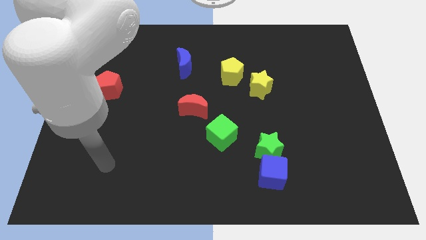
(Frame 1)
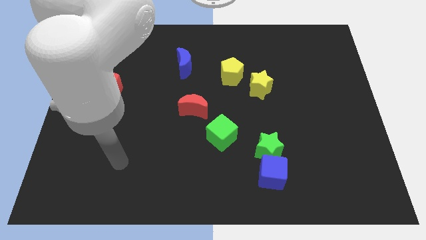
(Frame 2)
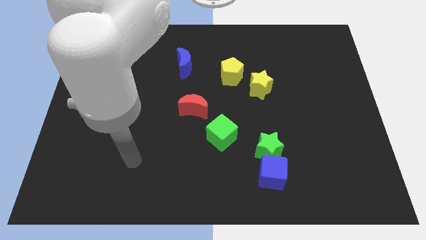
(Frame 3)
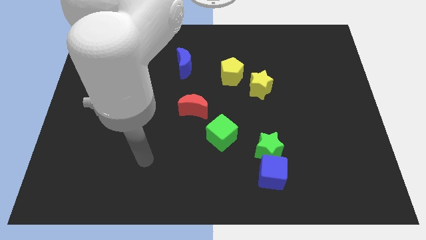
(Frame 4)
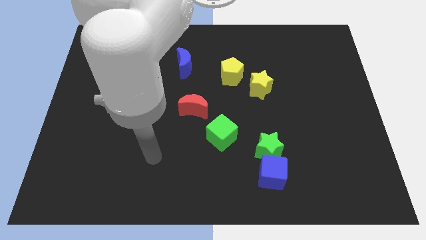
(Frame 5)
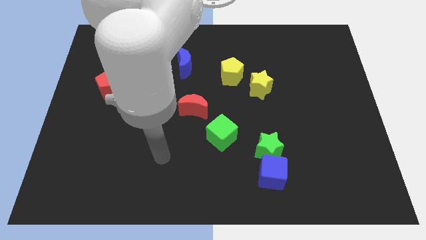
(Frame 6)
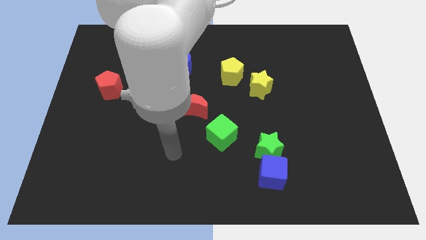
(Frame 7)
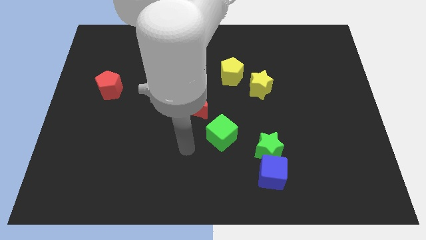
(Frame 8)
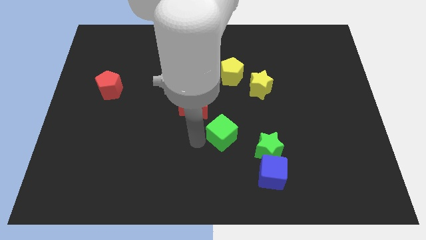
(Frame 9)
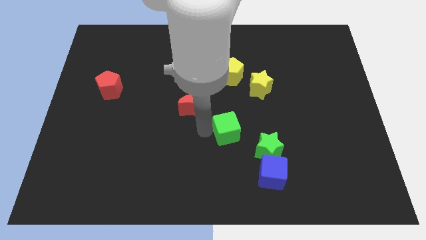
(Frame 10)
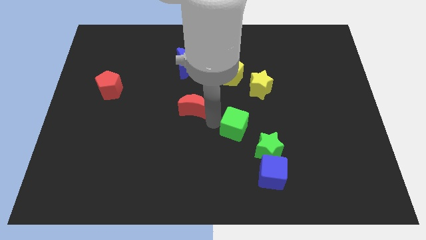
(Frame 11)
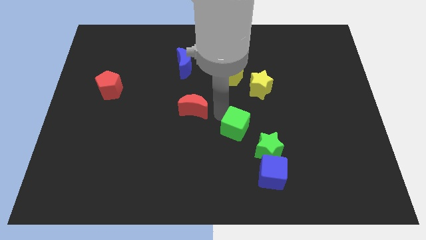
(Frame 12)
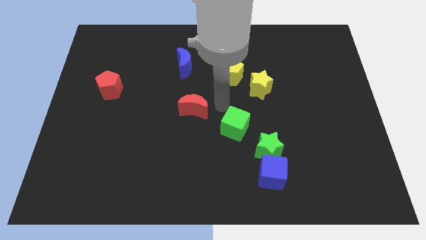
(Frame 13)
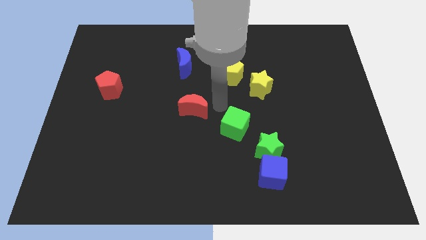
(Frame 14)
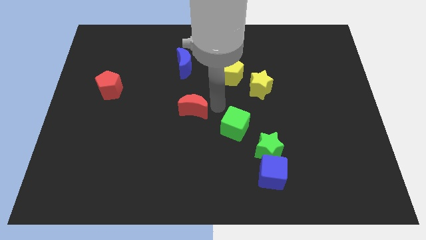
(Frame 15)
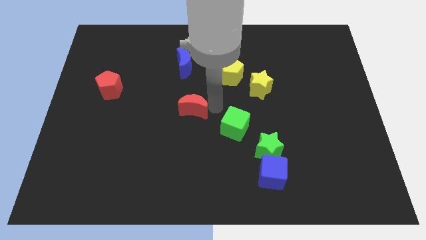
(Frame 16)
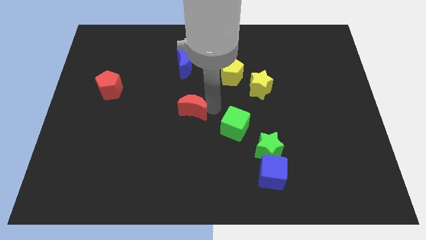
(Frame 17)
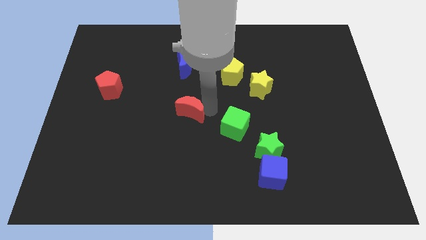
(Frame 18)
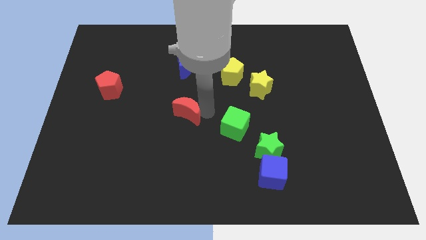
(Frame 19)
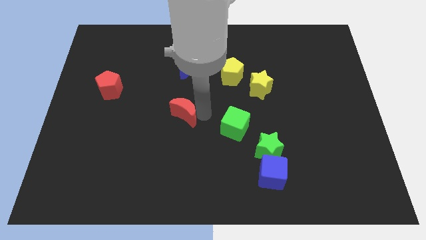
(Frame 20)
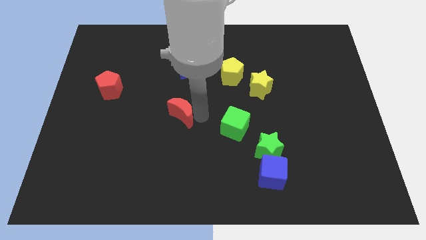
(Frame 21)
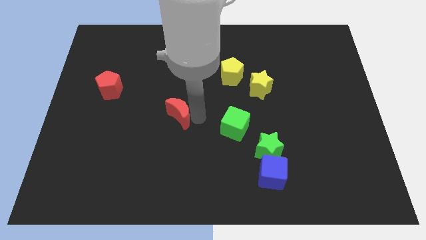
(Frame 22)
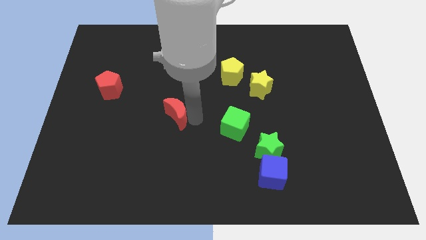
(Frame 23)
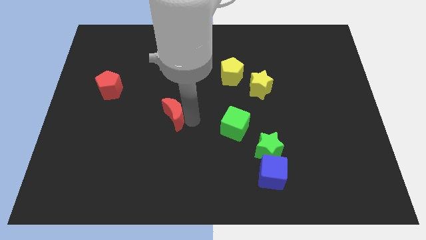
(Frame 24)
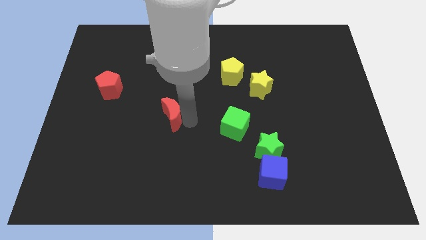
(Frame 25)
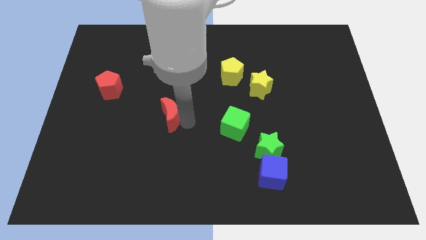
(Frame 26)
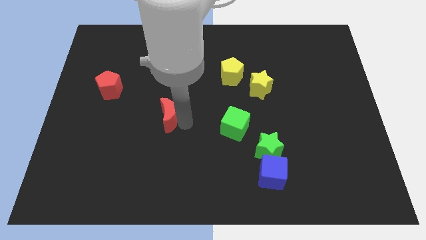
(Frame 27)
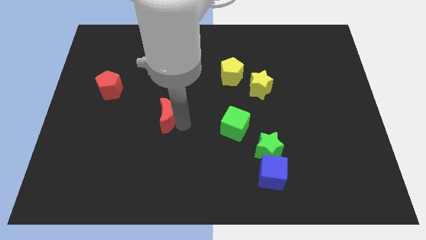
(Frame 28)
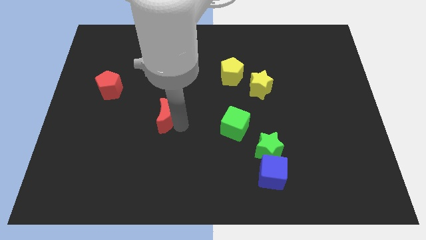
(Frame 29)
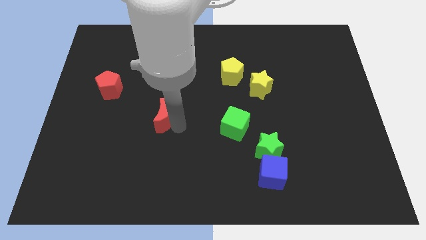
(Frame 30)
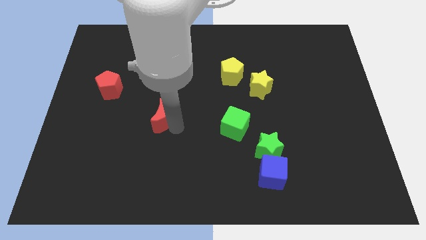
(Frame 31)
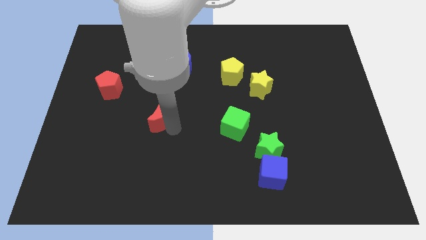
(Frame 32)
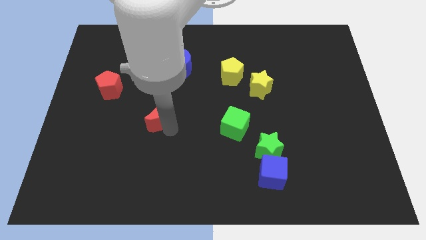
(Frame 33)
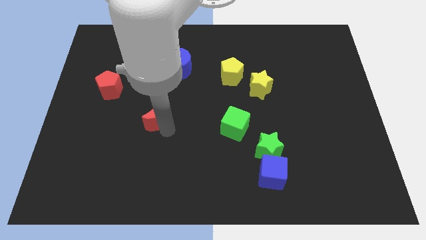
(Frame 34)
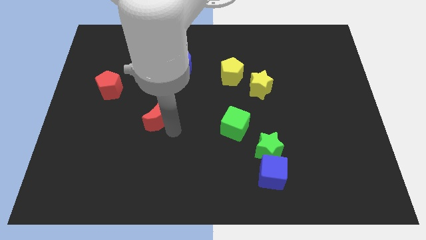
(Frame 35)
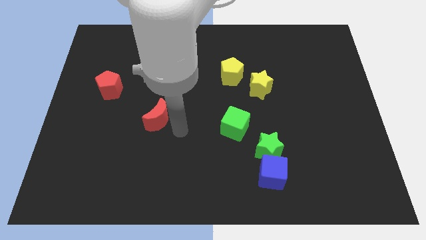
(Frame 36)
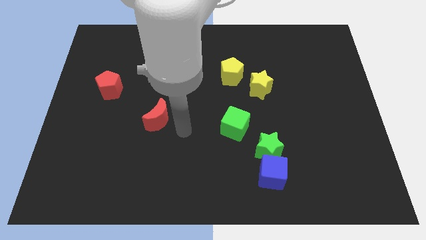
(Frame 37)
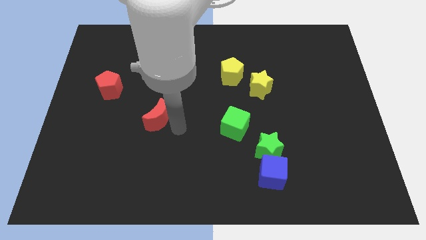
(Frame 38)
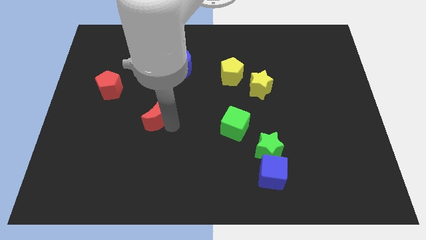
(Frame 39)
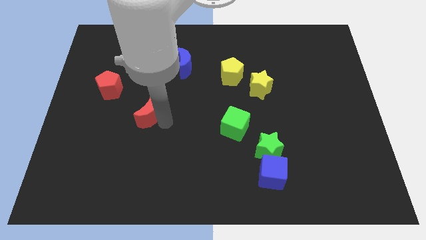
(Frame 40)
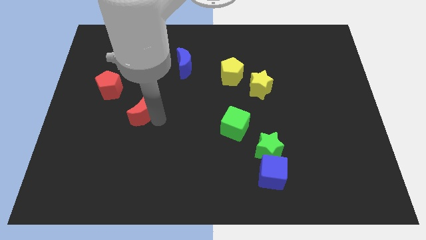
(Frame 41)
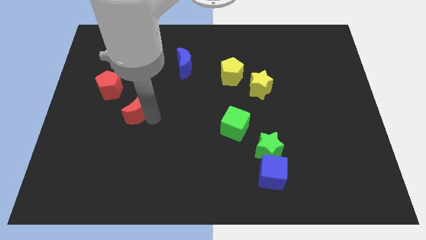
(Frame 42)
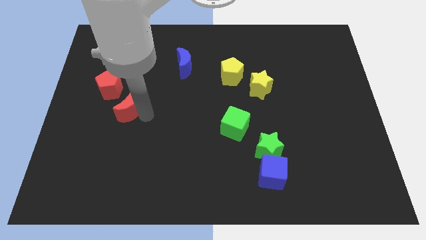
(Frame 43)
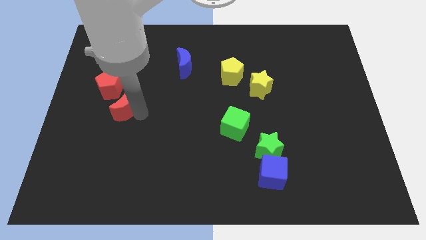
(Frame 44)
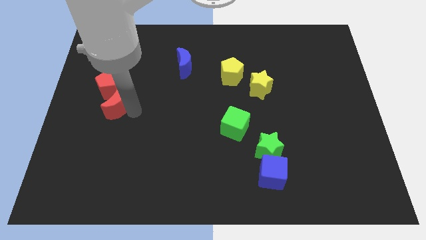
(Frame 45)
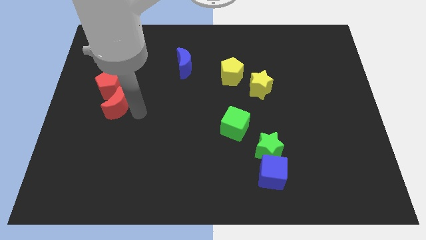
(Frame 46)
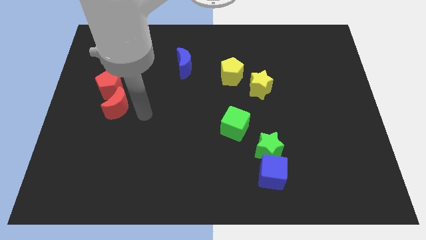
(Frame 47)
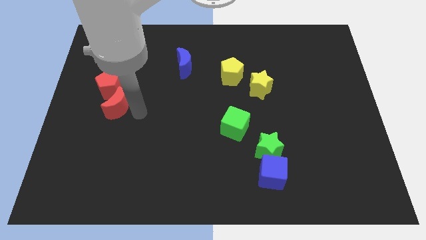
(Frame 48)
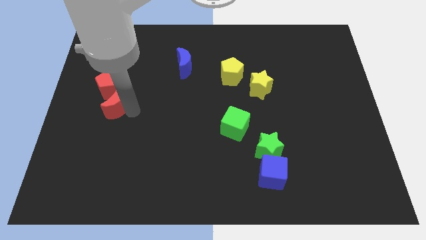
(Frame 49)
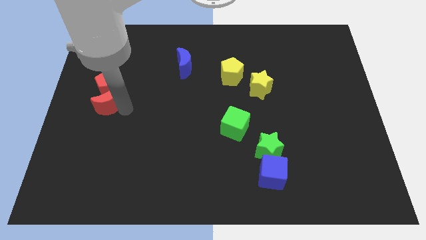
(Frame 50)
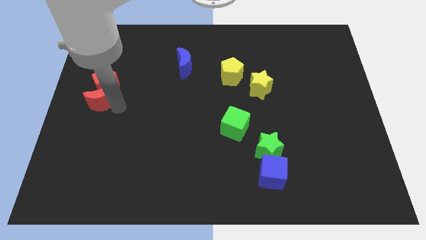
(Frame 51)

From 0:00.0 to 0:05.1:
push the red moon to the left side
